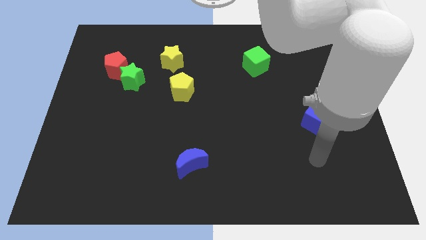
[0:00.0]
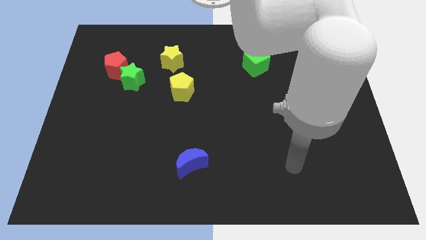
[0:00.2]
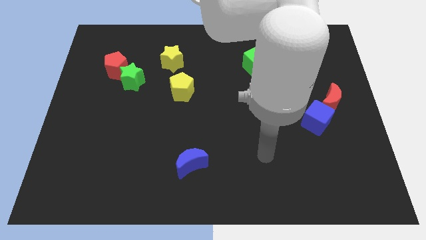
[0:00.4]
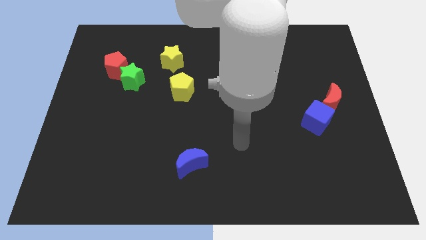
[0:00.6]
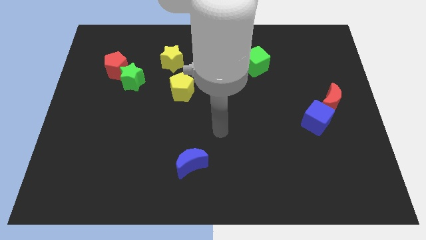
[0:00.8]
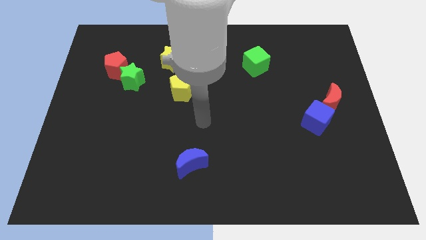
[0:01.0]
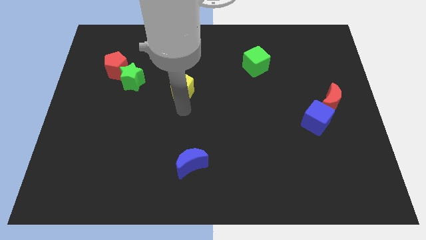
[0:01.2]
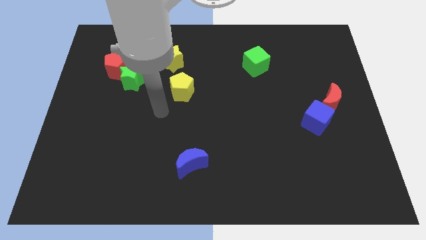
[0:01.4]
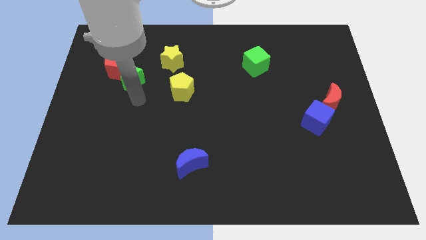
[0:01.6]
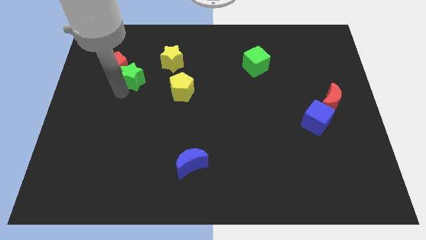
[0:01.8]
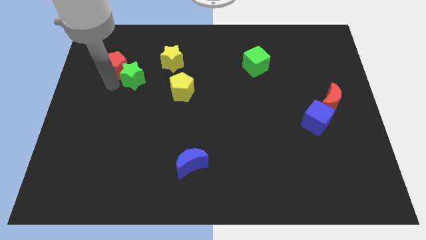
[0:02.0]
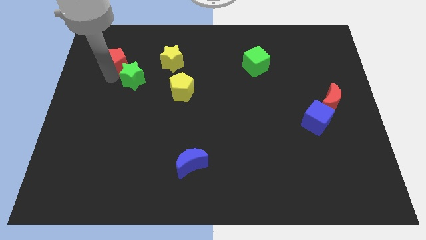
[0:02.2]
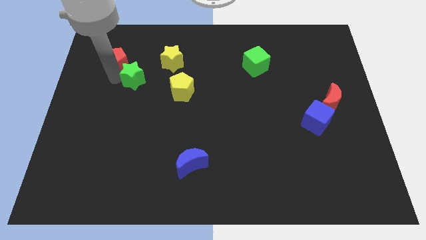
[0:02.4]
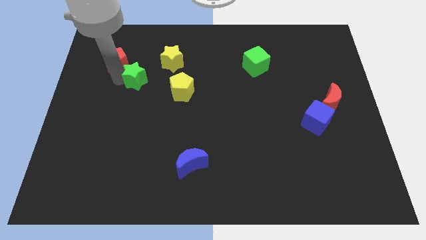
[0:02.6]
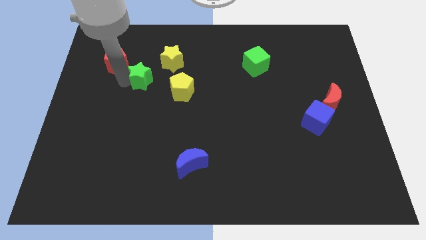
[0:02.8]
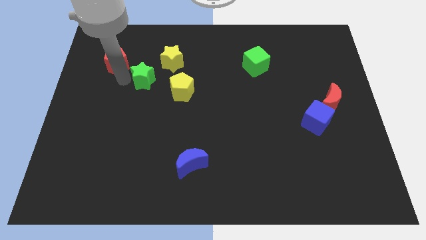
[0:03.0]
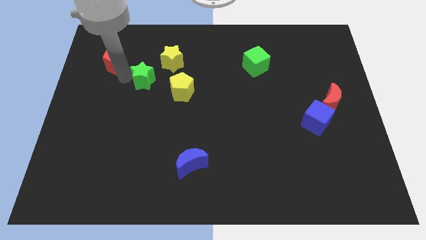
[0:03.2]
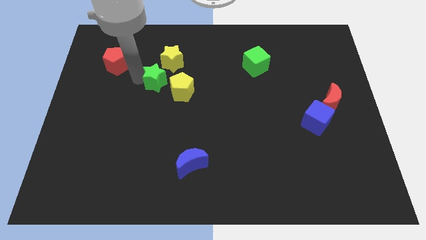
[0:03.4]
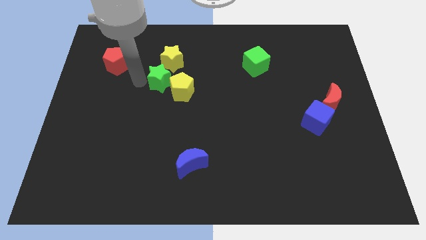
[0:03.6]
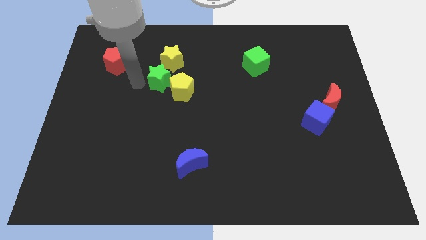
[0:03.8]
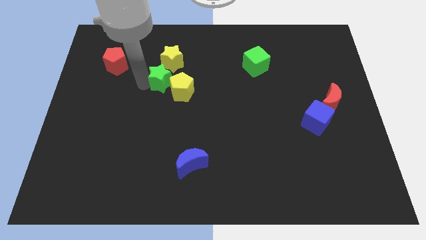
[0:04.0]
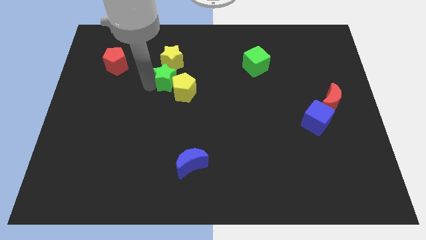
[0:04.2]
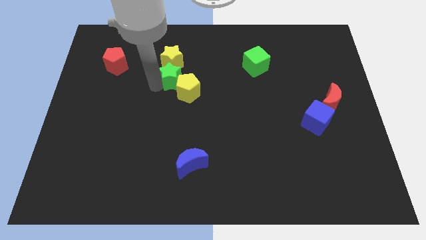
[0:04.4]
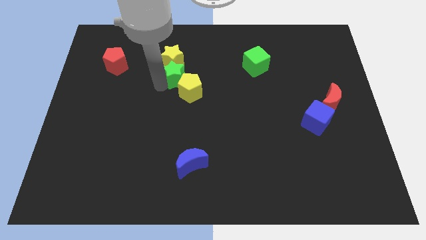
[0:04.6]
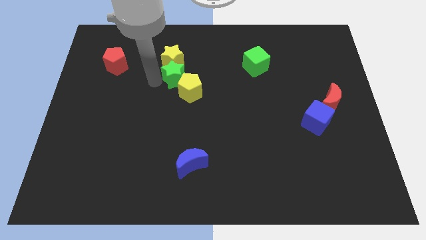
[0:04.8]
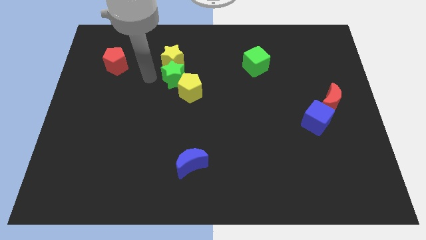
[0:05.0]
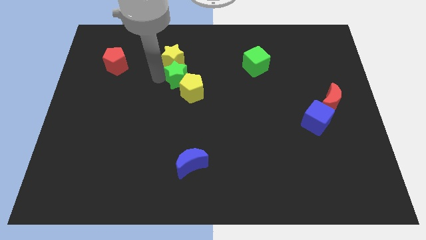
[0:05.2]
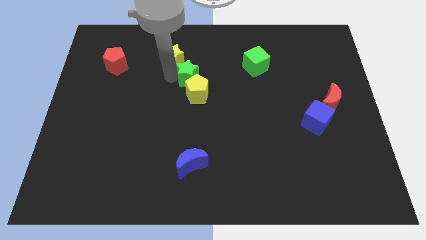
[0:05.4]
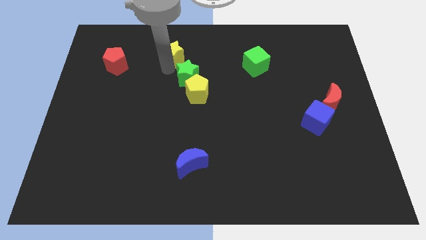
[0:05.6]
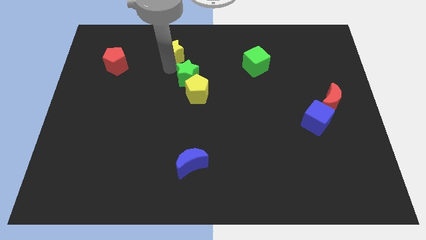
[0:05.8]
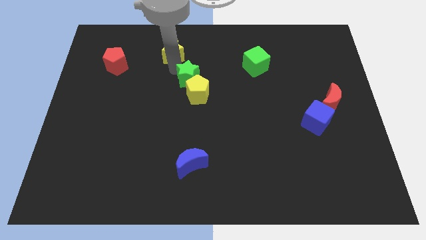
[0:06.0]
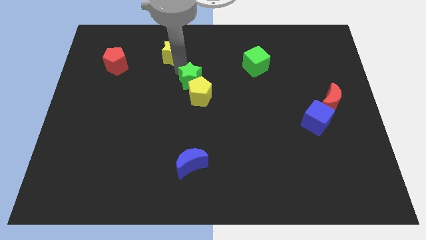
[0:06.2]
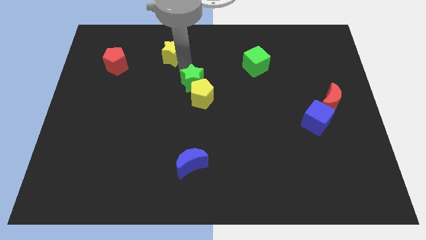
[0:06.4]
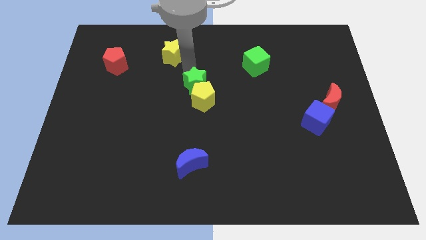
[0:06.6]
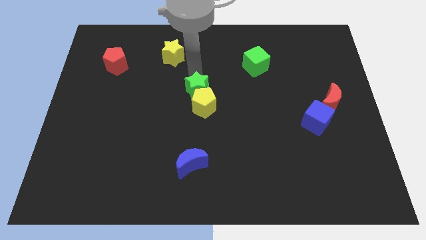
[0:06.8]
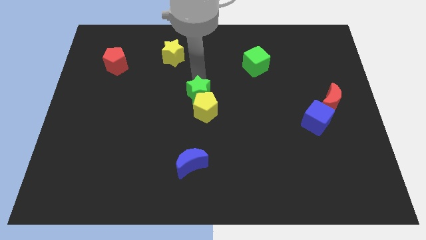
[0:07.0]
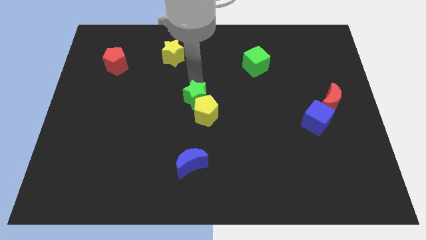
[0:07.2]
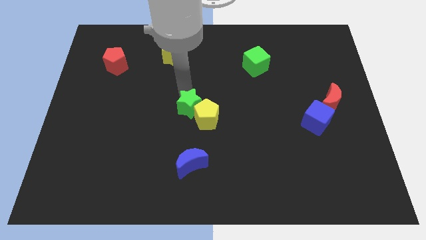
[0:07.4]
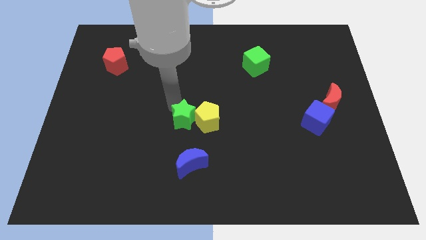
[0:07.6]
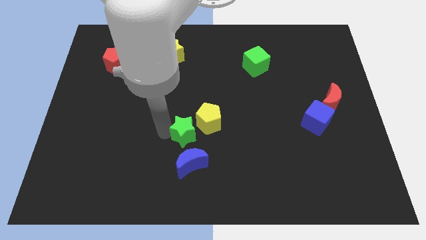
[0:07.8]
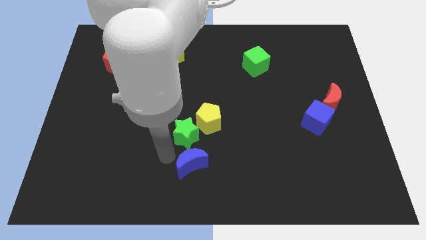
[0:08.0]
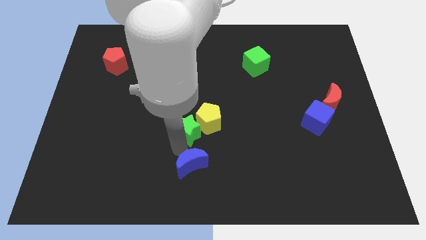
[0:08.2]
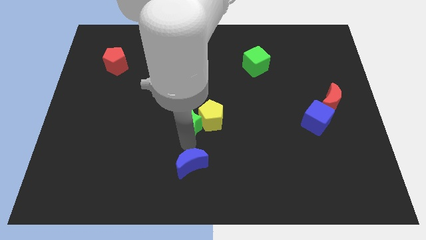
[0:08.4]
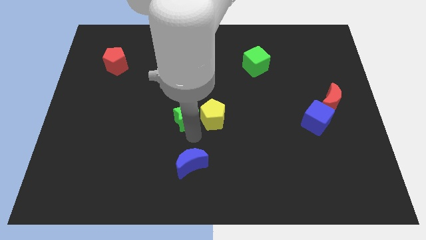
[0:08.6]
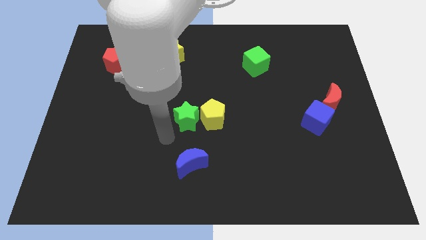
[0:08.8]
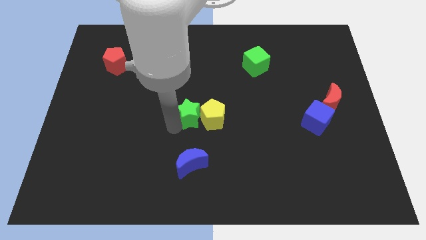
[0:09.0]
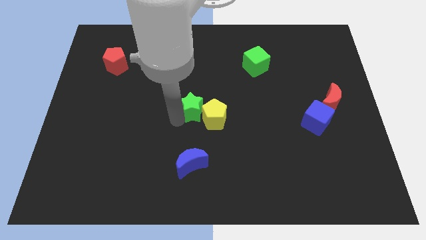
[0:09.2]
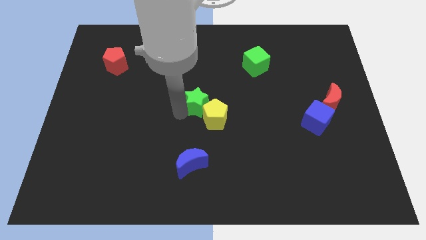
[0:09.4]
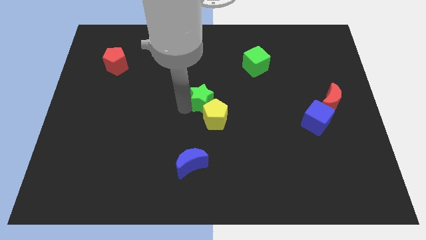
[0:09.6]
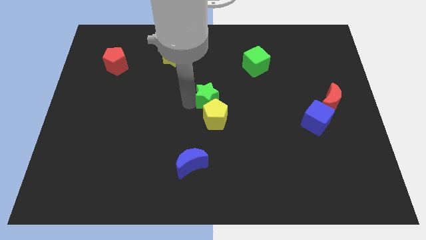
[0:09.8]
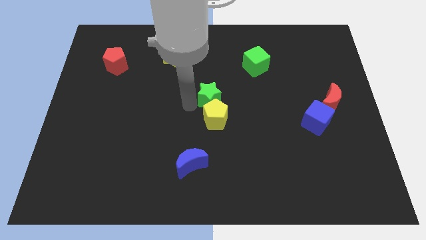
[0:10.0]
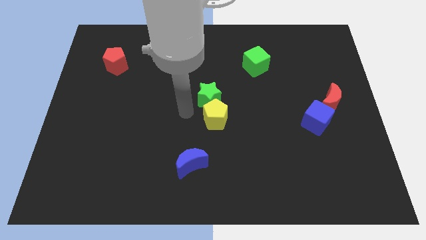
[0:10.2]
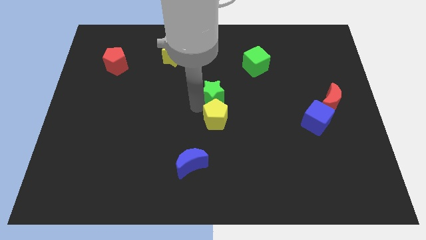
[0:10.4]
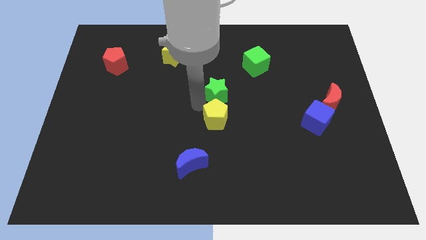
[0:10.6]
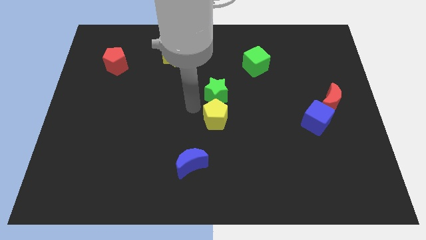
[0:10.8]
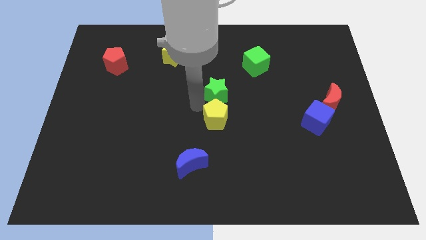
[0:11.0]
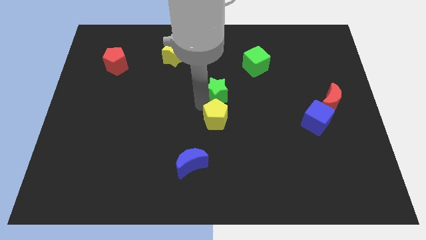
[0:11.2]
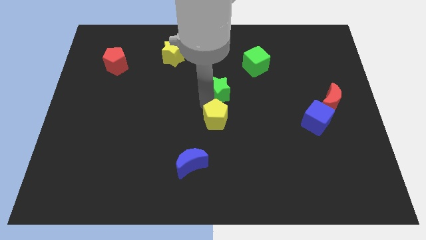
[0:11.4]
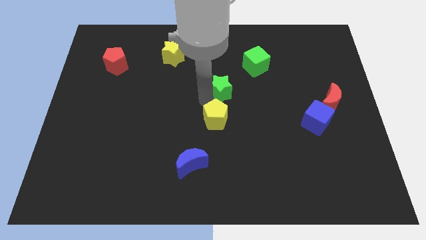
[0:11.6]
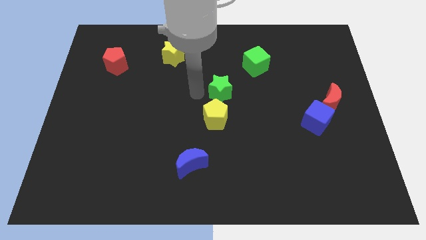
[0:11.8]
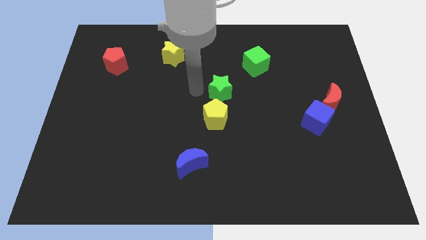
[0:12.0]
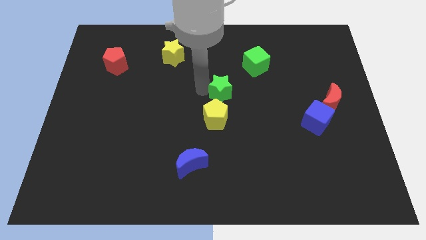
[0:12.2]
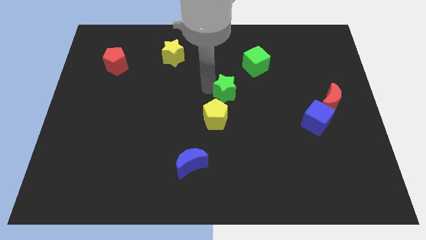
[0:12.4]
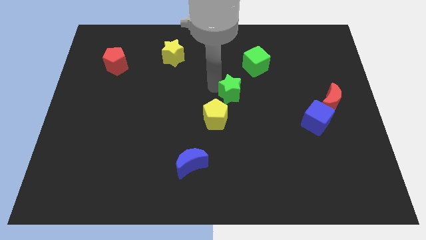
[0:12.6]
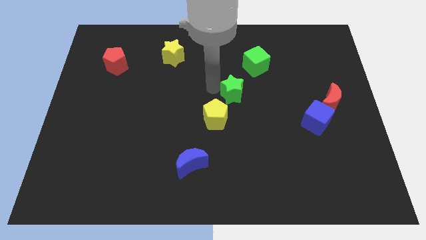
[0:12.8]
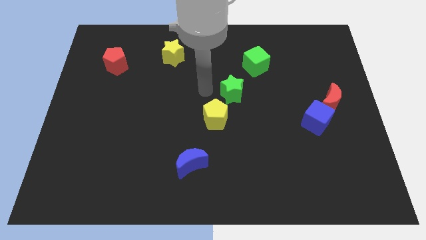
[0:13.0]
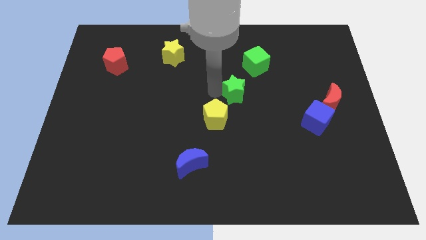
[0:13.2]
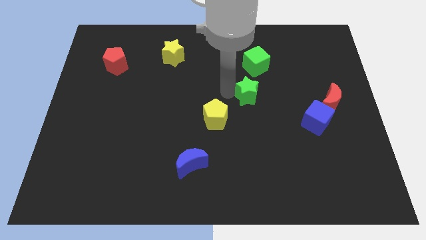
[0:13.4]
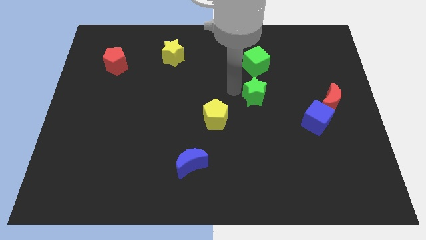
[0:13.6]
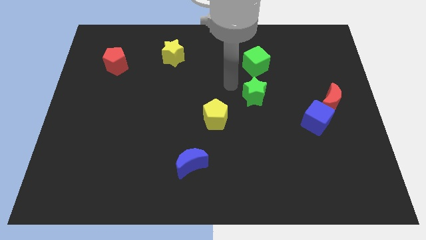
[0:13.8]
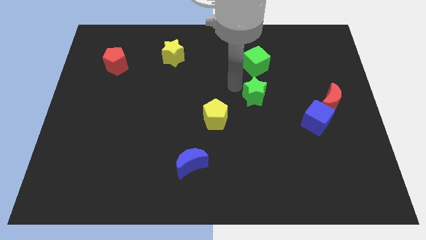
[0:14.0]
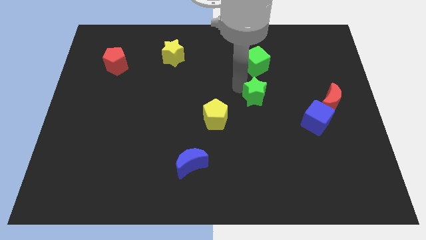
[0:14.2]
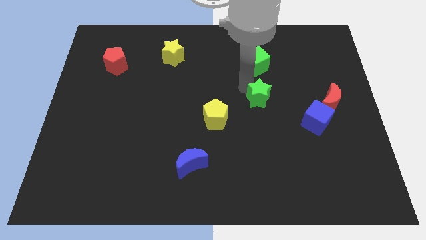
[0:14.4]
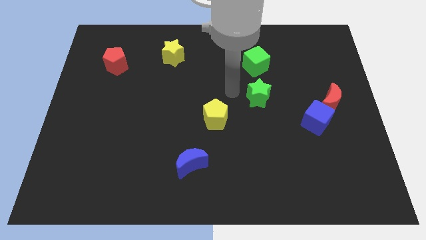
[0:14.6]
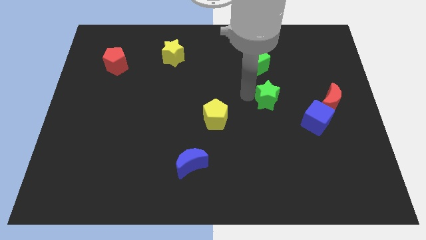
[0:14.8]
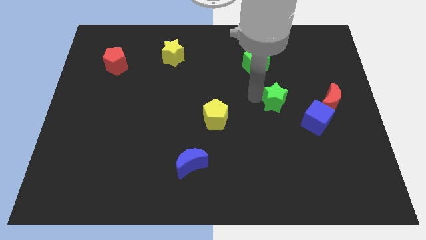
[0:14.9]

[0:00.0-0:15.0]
put the green star to the top left side of the blue cube
